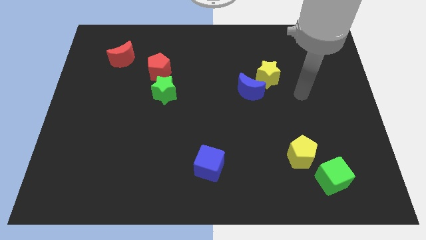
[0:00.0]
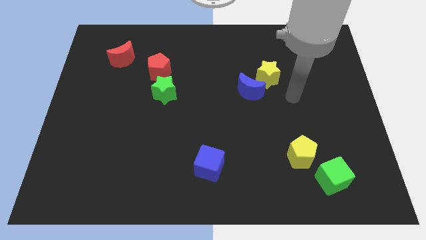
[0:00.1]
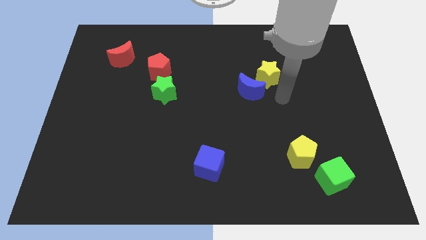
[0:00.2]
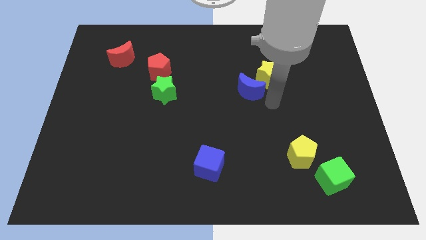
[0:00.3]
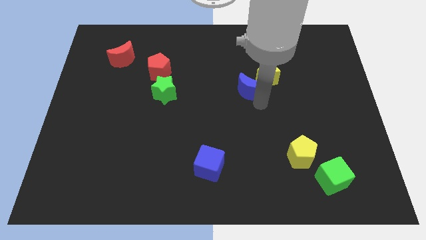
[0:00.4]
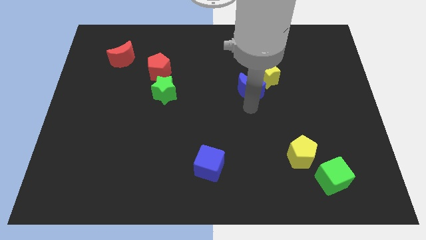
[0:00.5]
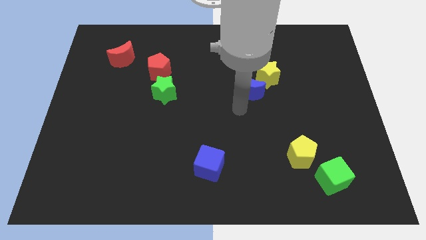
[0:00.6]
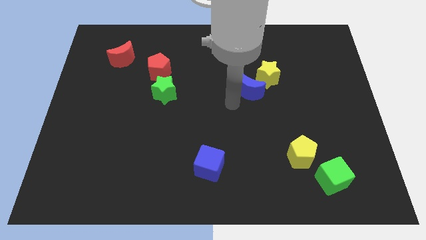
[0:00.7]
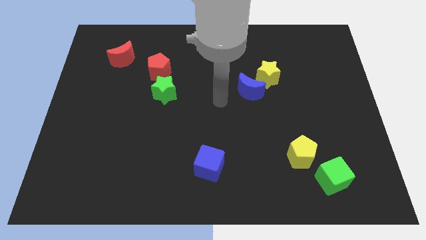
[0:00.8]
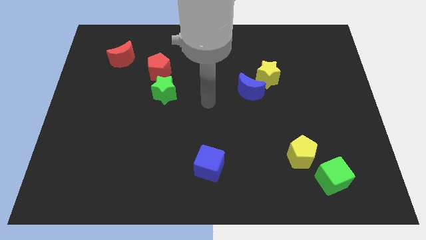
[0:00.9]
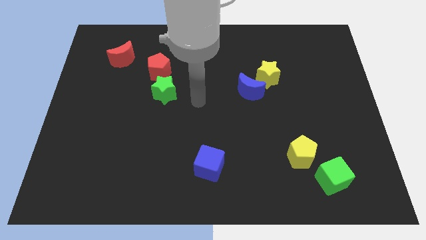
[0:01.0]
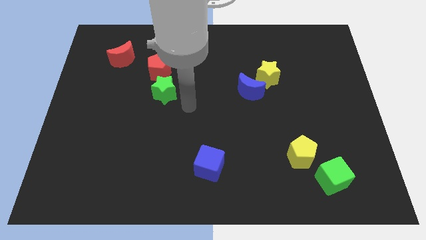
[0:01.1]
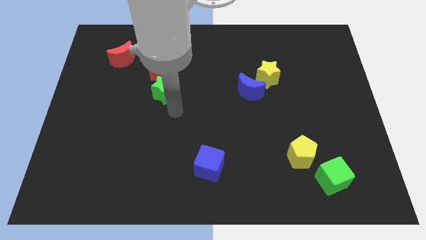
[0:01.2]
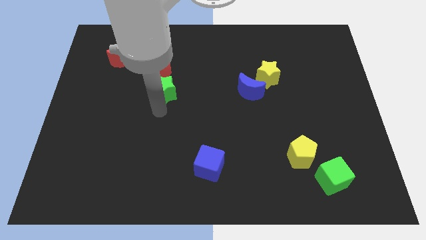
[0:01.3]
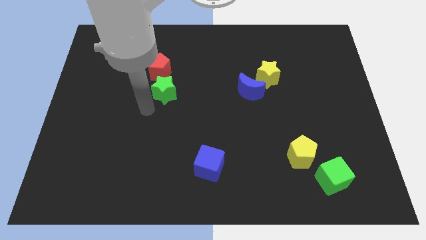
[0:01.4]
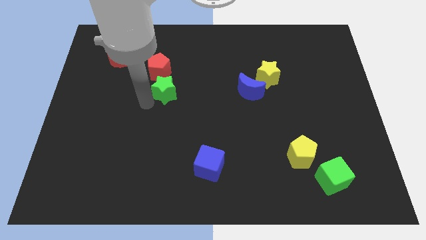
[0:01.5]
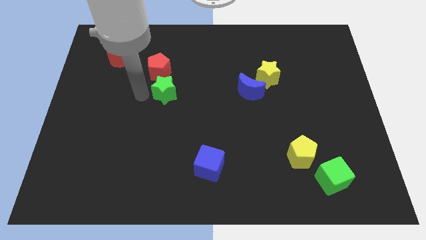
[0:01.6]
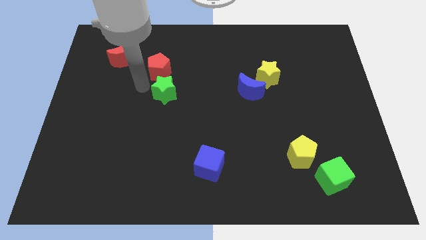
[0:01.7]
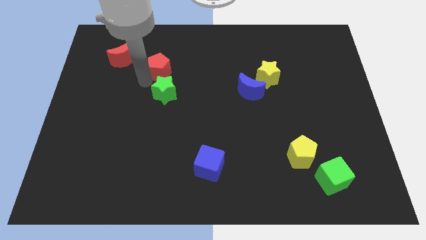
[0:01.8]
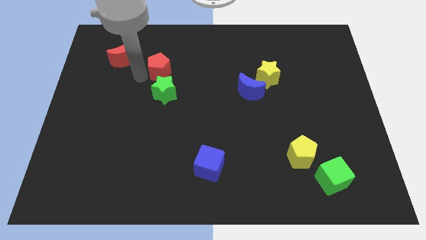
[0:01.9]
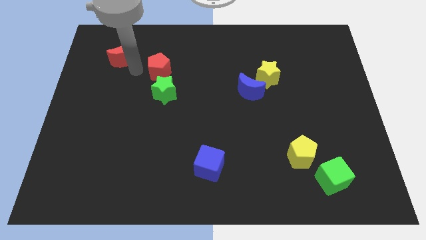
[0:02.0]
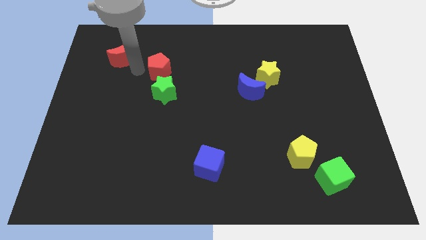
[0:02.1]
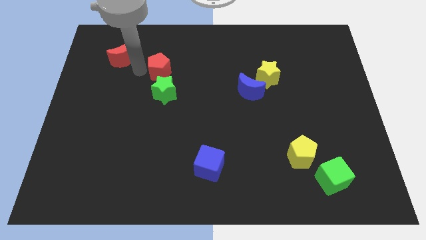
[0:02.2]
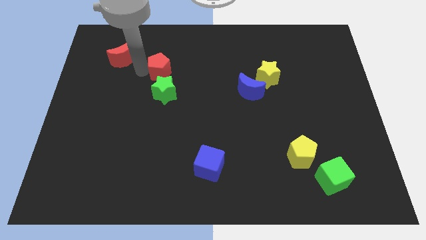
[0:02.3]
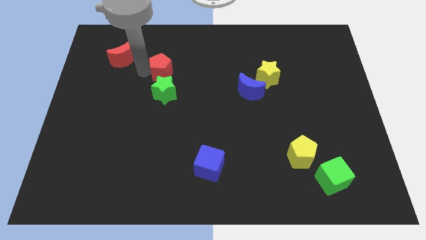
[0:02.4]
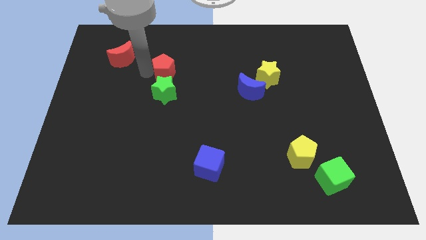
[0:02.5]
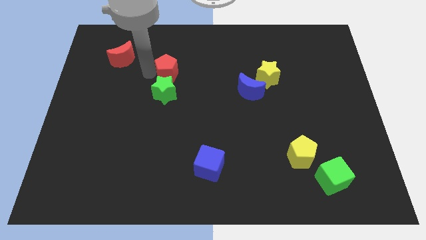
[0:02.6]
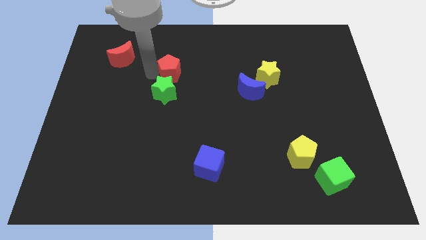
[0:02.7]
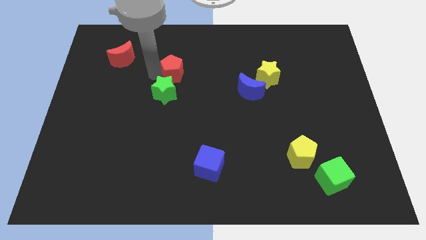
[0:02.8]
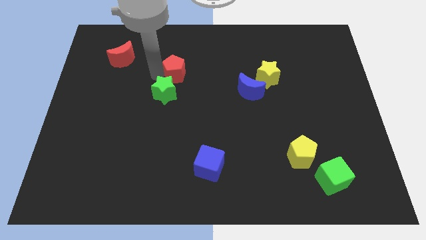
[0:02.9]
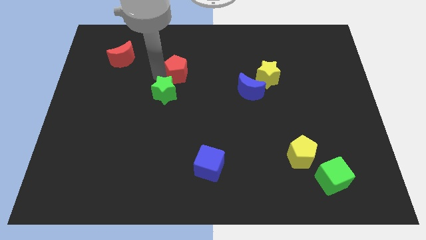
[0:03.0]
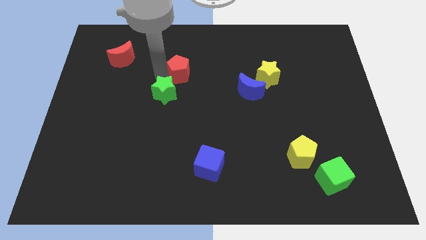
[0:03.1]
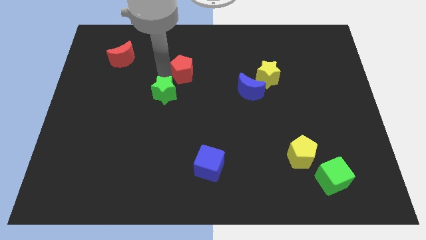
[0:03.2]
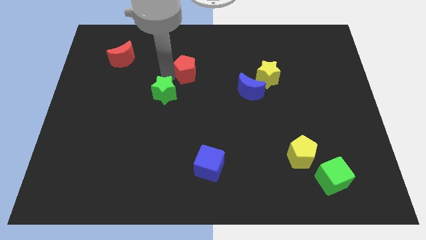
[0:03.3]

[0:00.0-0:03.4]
slightly push the red pentagon to the right

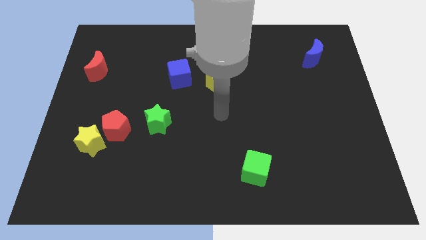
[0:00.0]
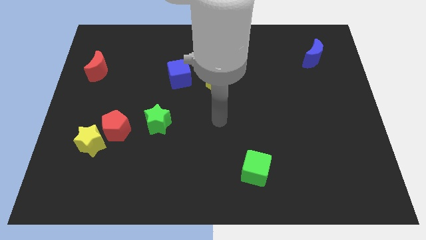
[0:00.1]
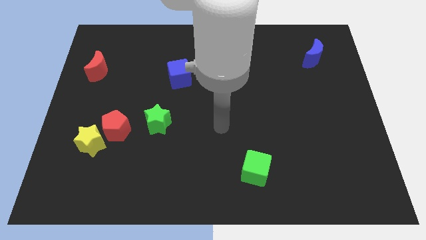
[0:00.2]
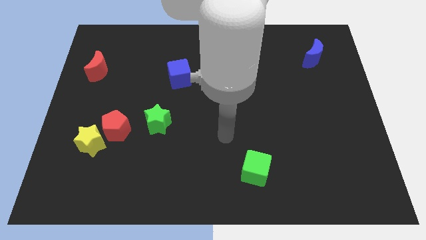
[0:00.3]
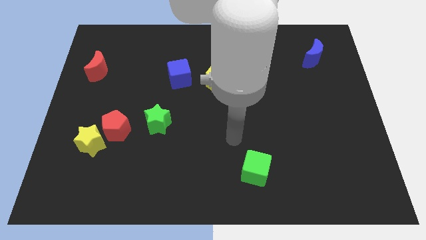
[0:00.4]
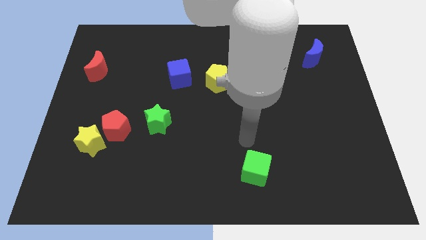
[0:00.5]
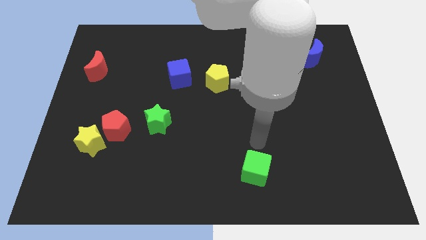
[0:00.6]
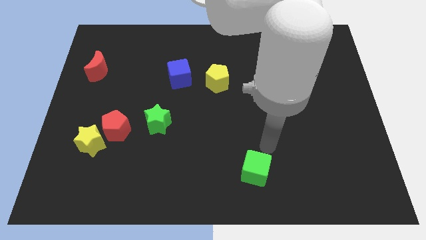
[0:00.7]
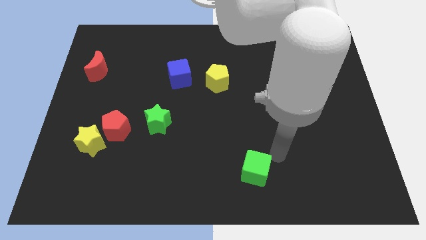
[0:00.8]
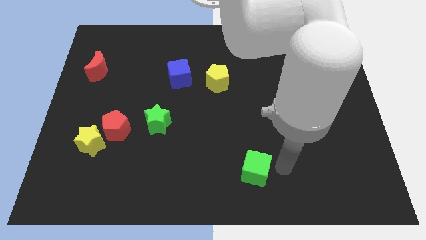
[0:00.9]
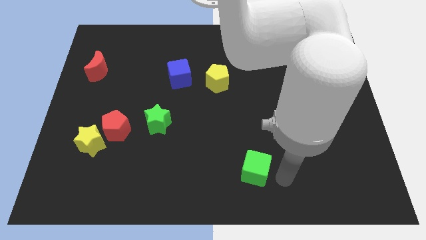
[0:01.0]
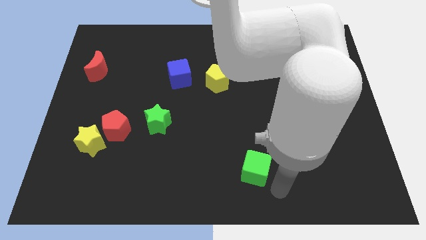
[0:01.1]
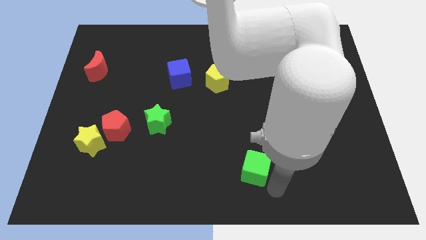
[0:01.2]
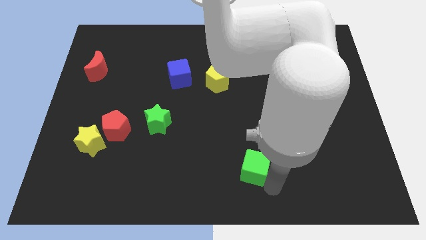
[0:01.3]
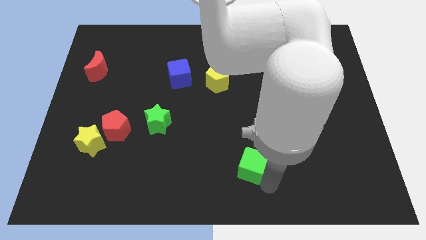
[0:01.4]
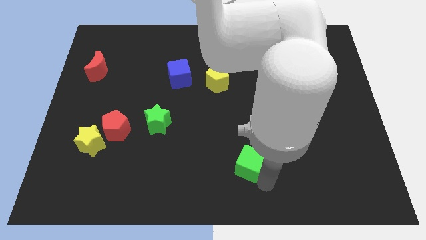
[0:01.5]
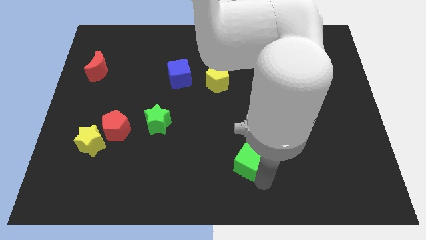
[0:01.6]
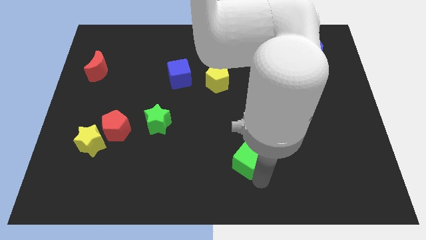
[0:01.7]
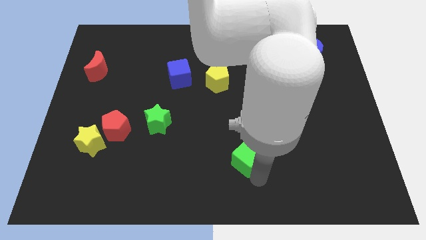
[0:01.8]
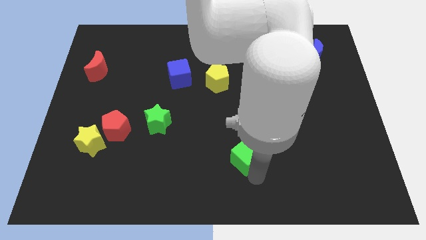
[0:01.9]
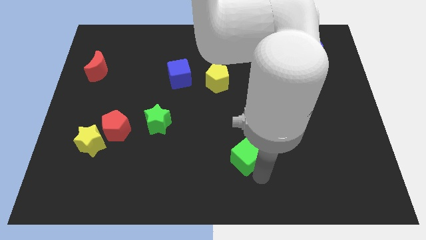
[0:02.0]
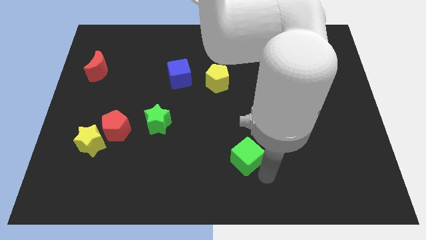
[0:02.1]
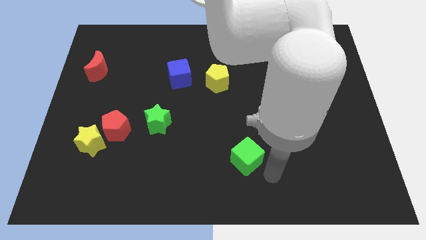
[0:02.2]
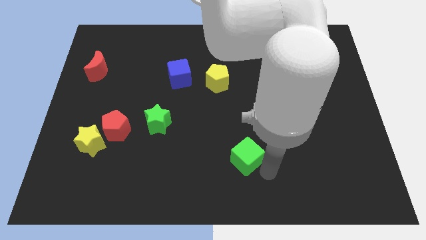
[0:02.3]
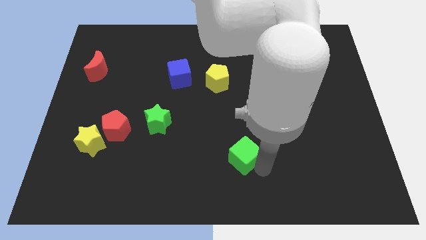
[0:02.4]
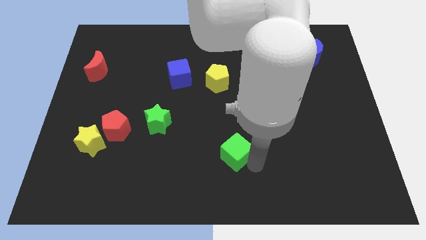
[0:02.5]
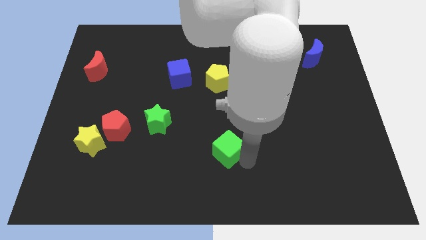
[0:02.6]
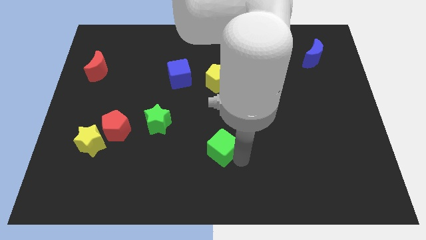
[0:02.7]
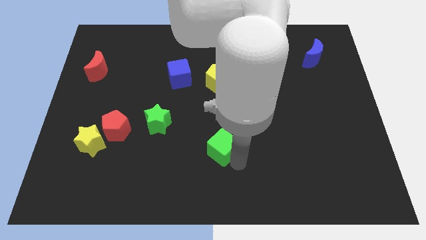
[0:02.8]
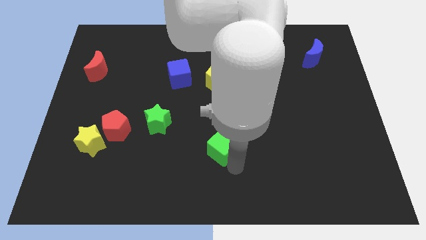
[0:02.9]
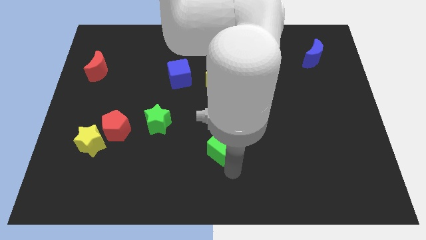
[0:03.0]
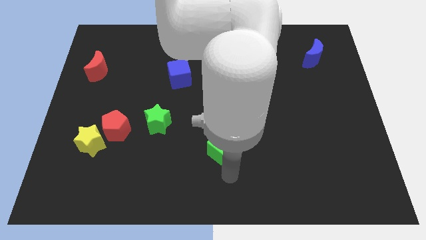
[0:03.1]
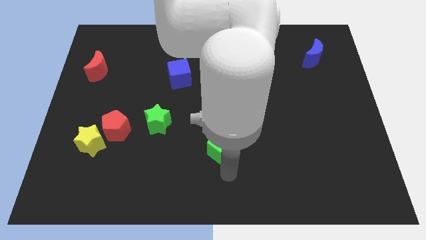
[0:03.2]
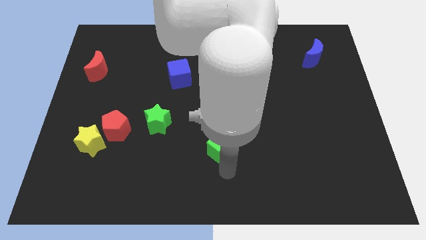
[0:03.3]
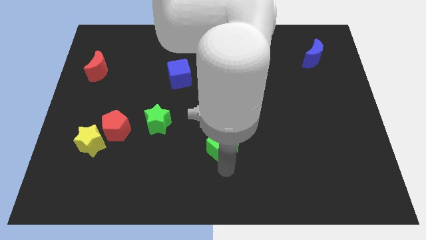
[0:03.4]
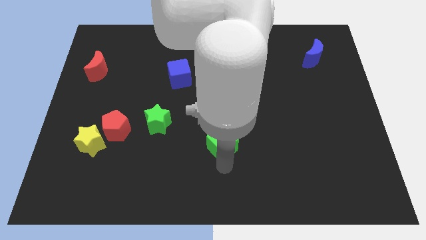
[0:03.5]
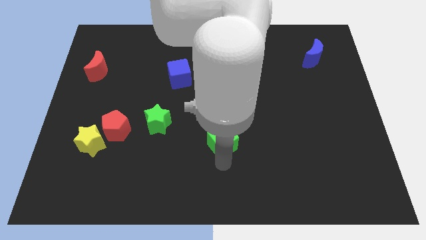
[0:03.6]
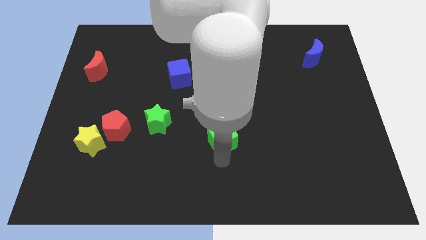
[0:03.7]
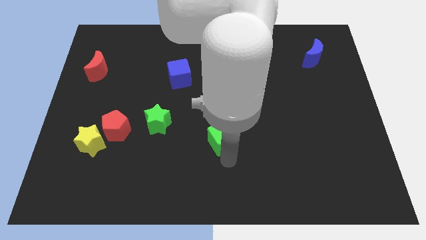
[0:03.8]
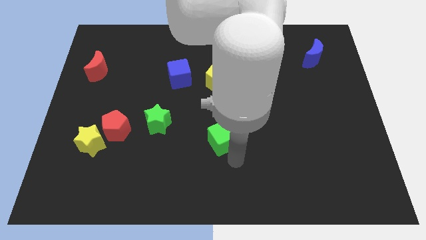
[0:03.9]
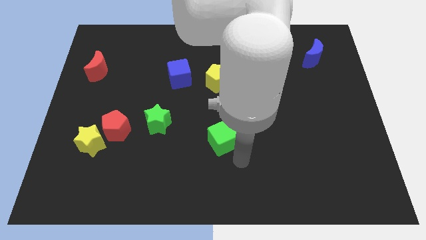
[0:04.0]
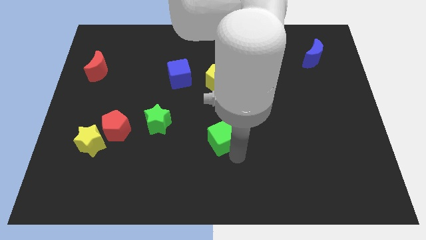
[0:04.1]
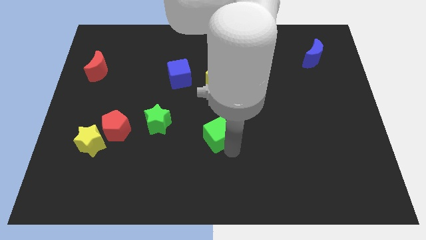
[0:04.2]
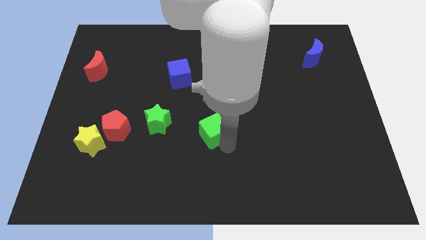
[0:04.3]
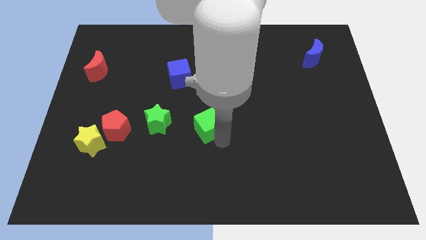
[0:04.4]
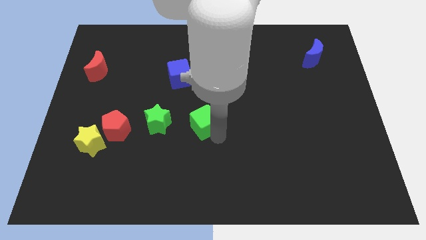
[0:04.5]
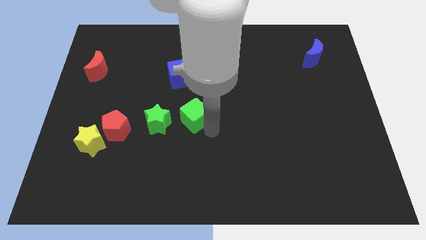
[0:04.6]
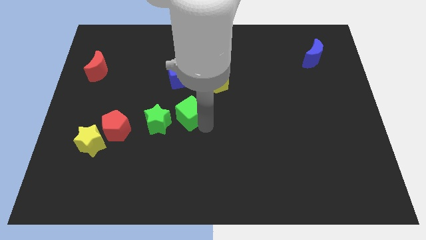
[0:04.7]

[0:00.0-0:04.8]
push the green cube up and left diagonally
